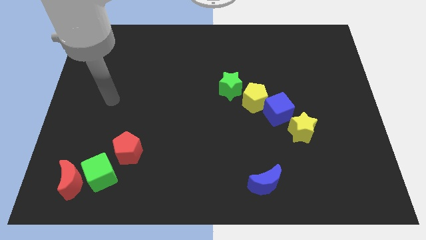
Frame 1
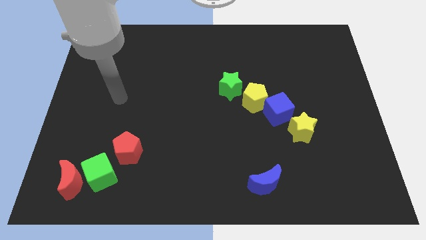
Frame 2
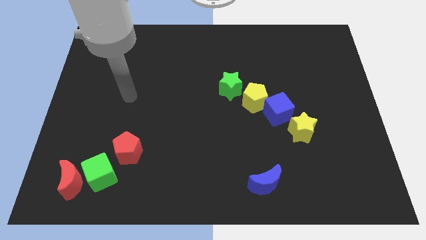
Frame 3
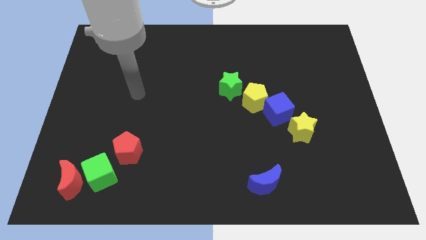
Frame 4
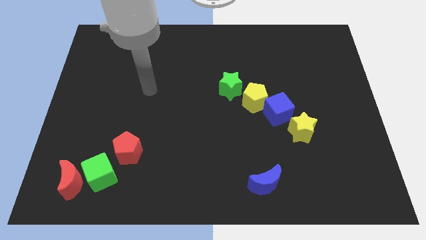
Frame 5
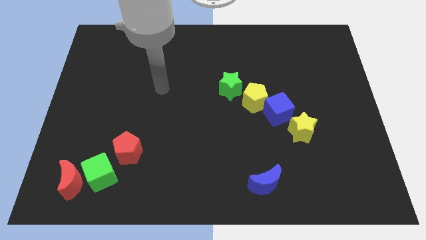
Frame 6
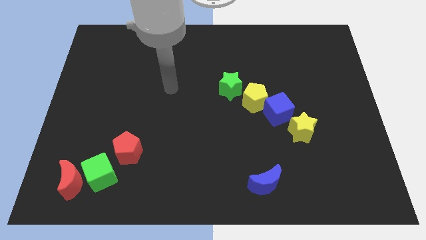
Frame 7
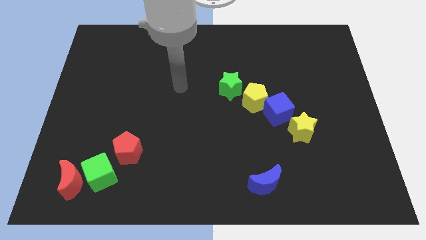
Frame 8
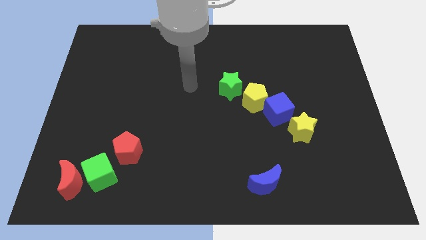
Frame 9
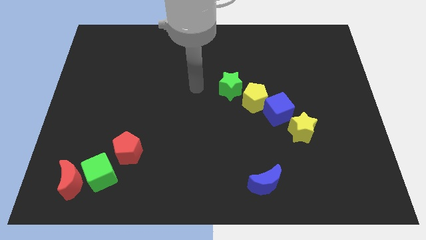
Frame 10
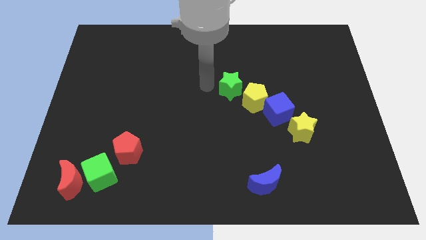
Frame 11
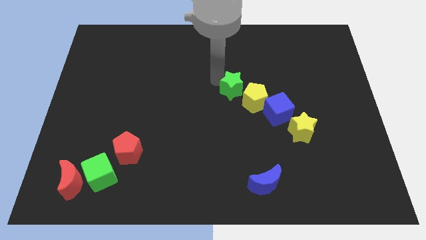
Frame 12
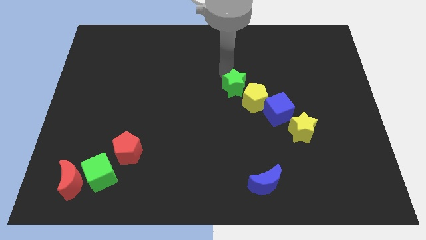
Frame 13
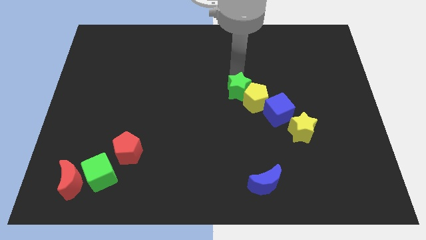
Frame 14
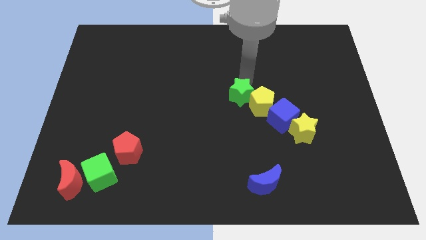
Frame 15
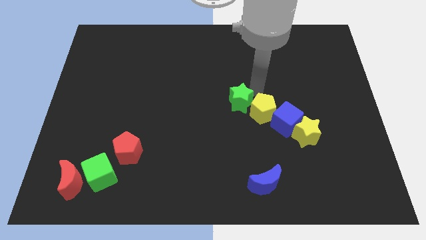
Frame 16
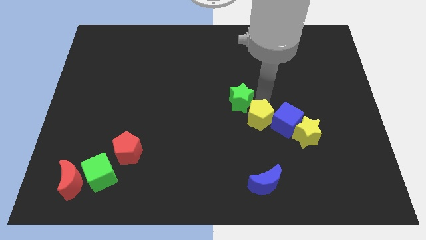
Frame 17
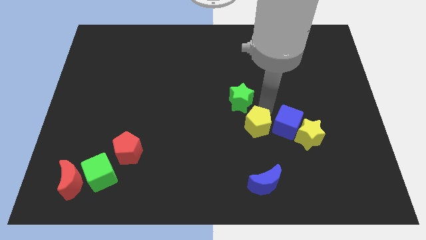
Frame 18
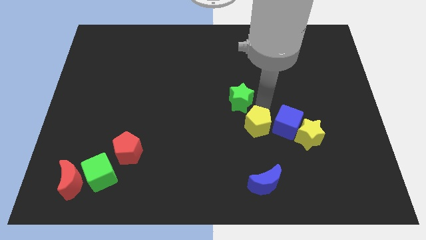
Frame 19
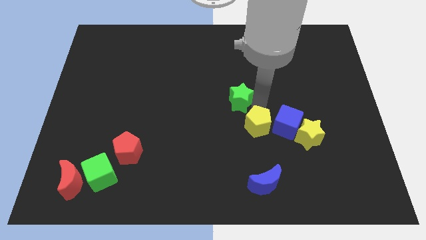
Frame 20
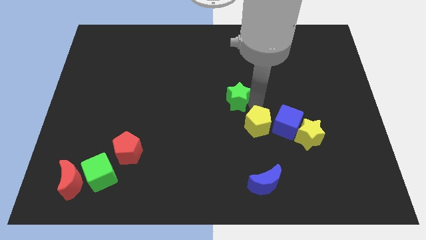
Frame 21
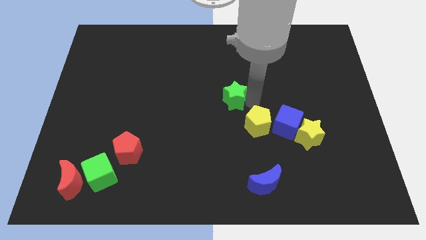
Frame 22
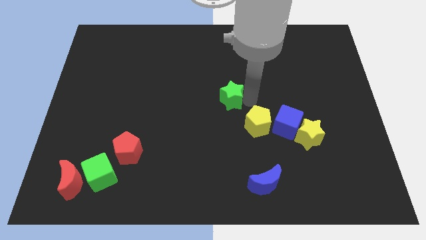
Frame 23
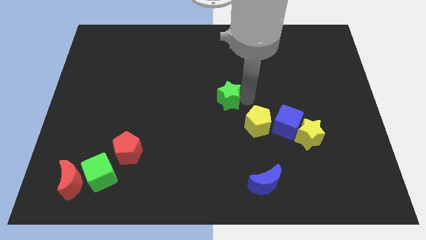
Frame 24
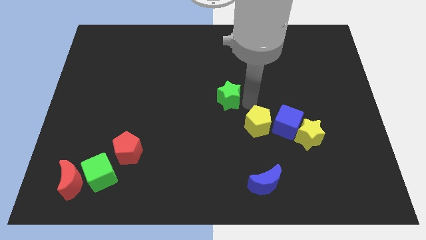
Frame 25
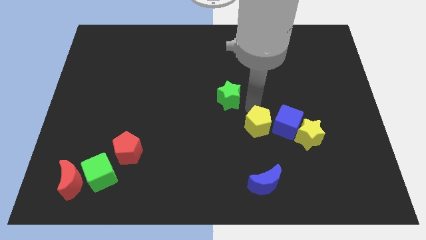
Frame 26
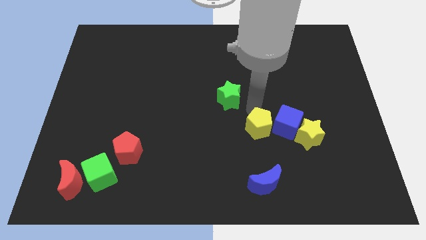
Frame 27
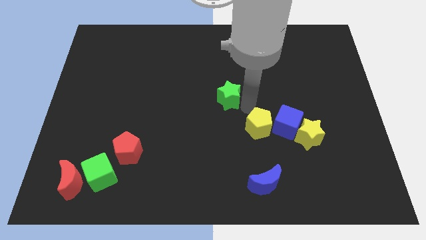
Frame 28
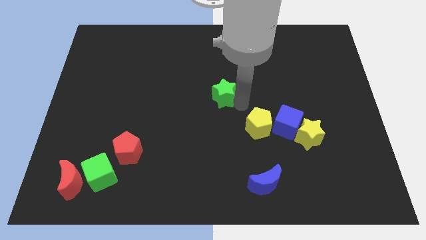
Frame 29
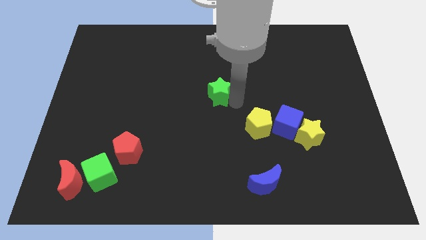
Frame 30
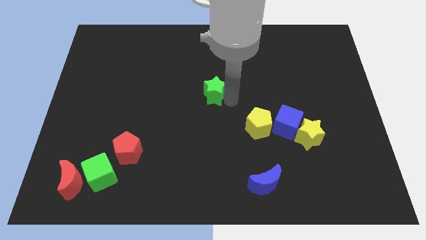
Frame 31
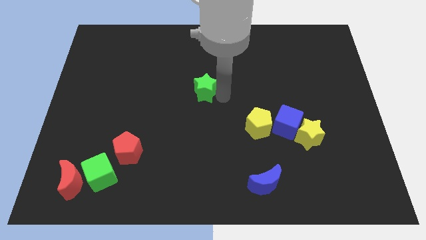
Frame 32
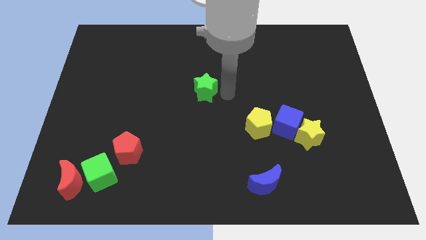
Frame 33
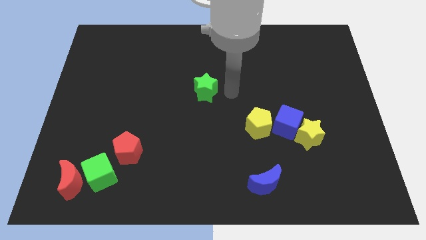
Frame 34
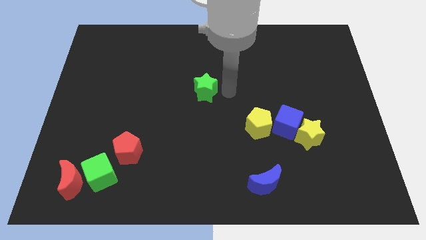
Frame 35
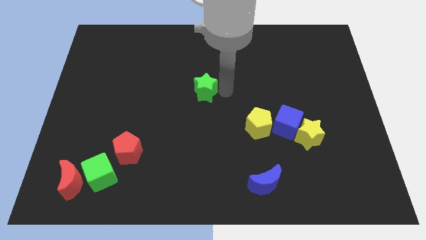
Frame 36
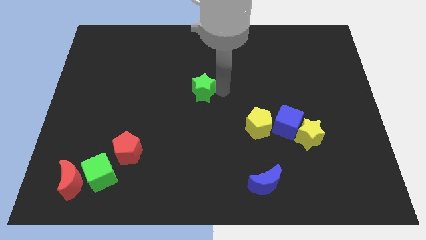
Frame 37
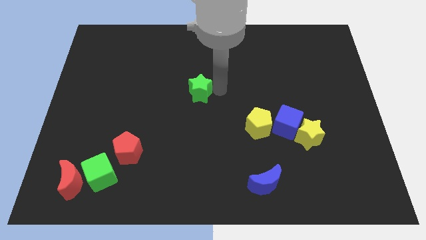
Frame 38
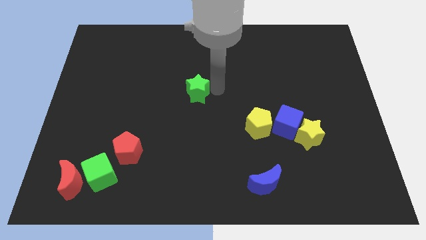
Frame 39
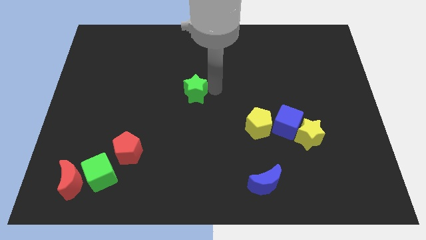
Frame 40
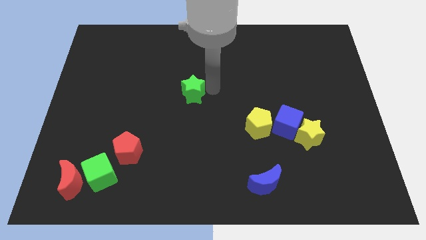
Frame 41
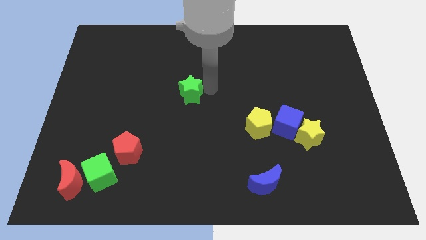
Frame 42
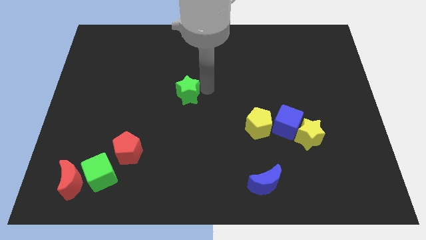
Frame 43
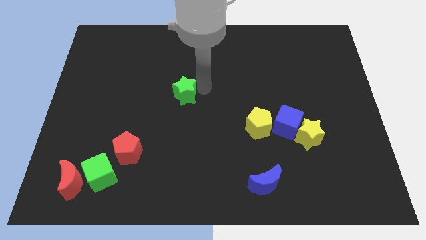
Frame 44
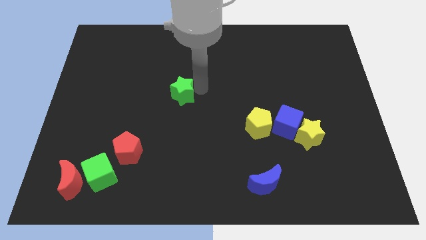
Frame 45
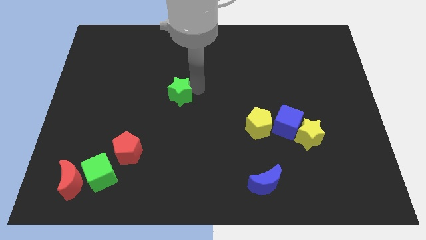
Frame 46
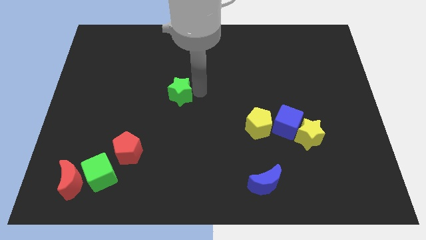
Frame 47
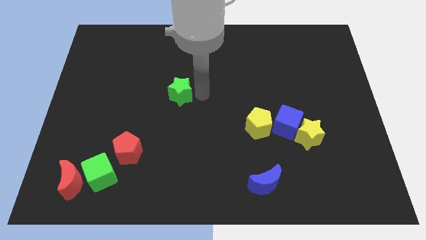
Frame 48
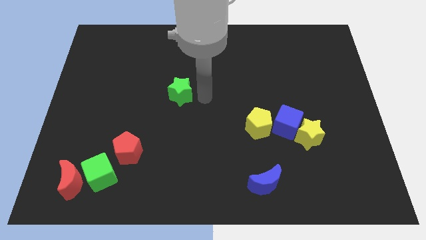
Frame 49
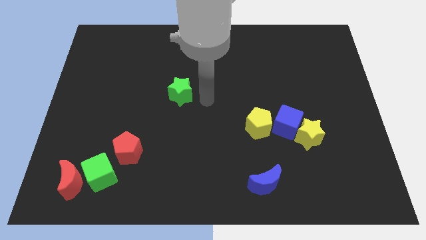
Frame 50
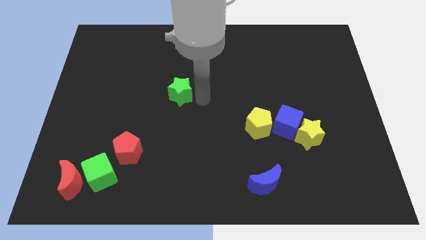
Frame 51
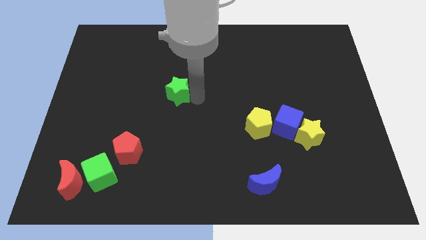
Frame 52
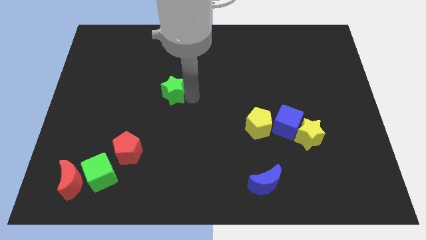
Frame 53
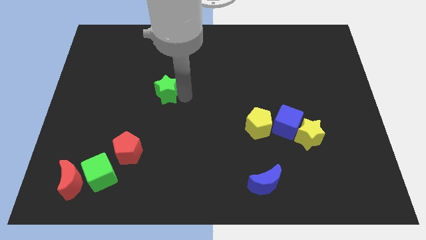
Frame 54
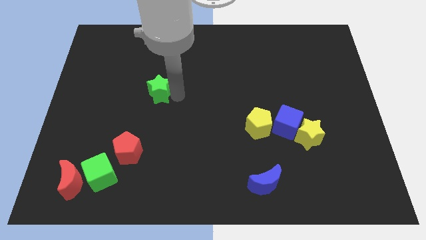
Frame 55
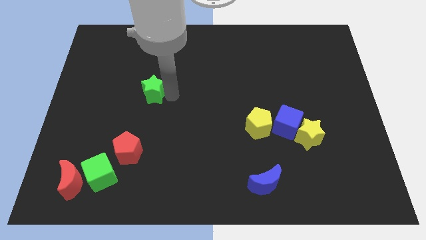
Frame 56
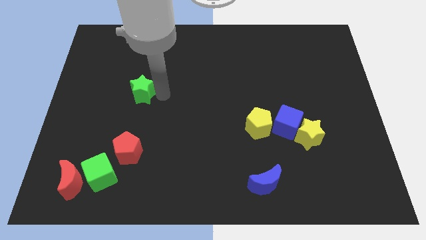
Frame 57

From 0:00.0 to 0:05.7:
slide the green star to the left

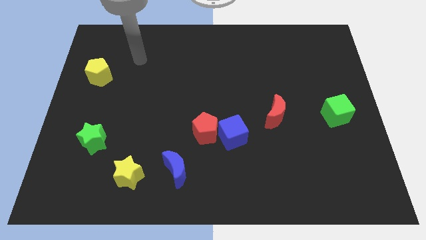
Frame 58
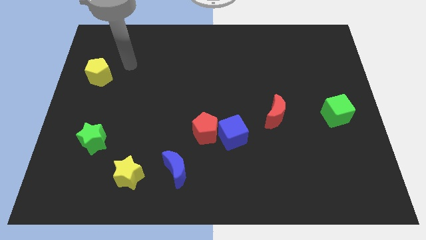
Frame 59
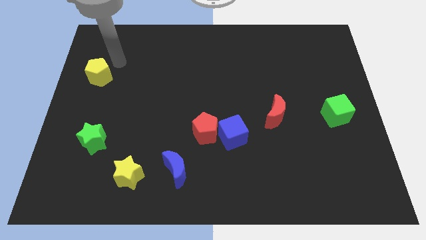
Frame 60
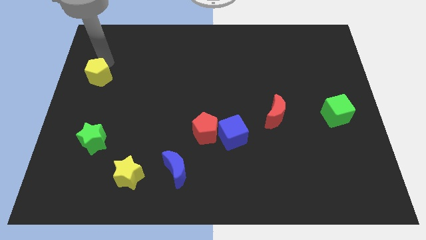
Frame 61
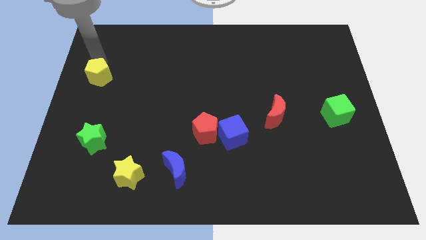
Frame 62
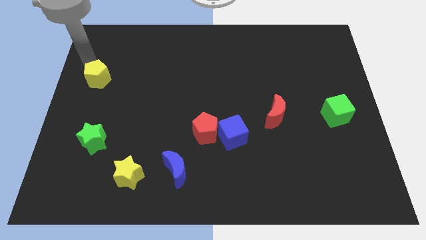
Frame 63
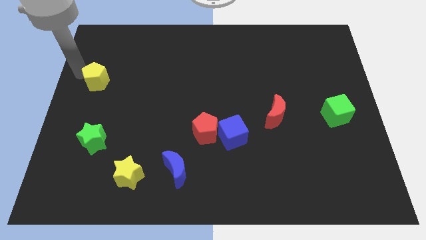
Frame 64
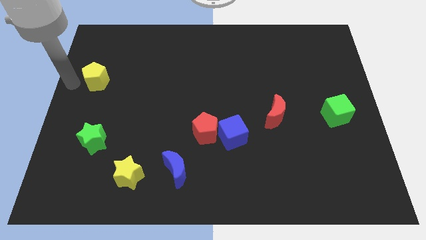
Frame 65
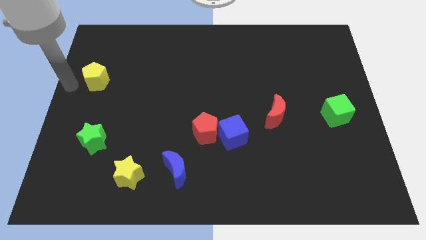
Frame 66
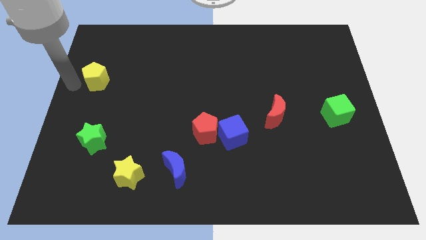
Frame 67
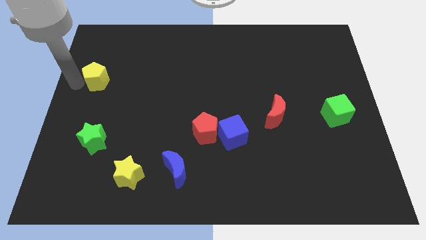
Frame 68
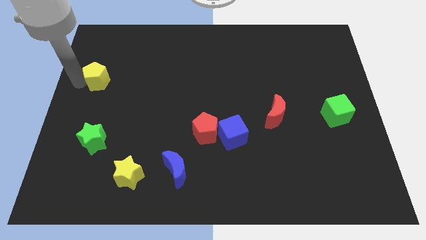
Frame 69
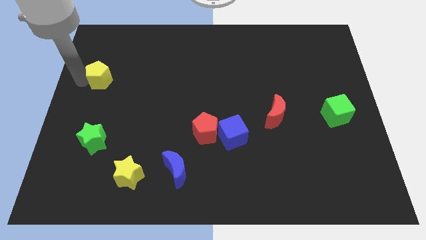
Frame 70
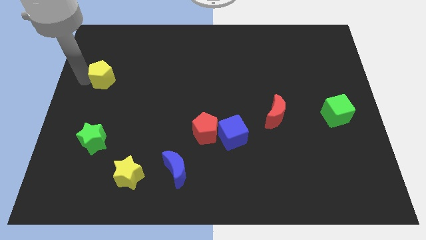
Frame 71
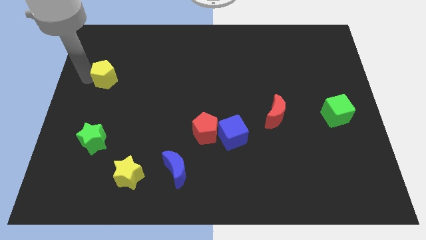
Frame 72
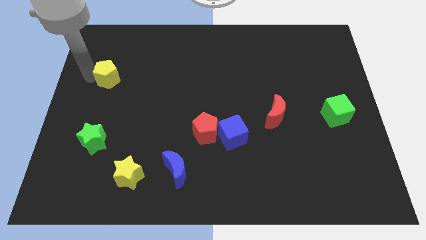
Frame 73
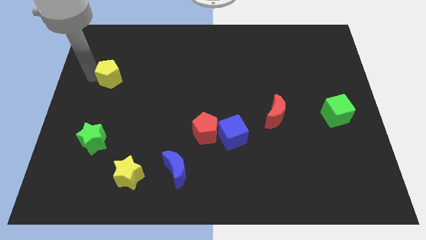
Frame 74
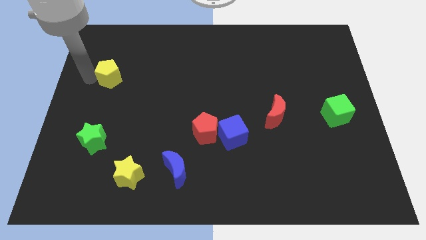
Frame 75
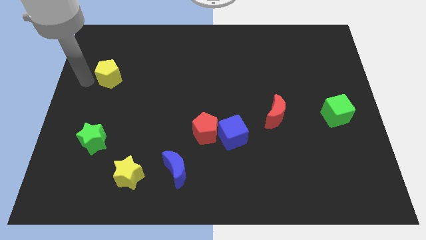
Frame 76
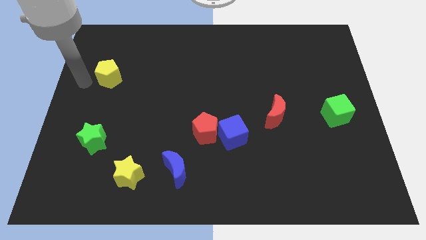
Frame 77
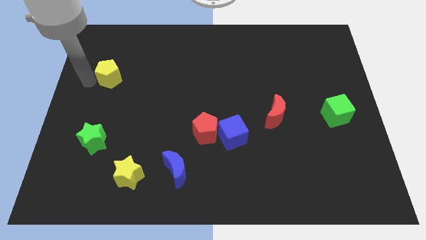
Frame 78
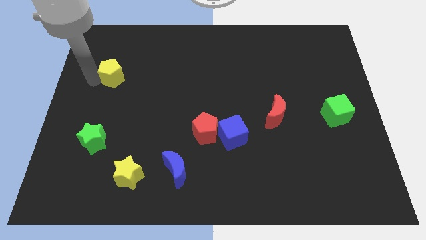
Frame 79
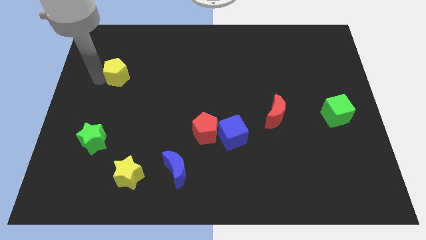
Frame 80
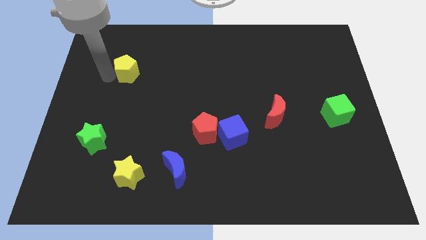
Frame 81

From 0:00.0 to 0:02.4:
push the yellow pentagon to the right a little bit

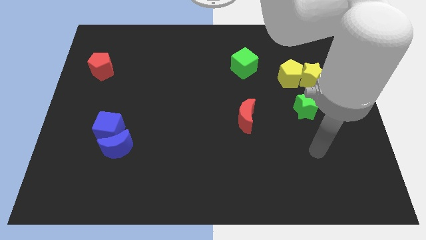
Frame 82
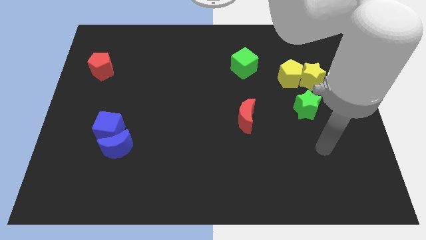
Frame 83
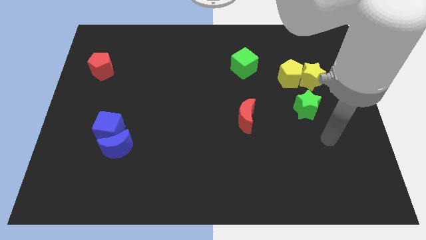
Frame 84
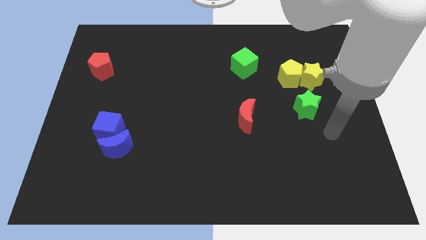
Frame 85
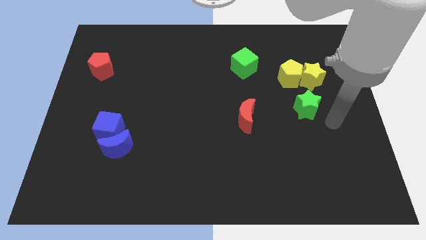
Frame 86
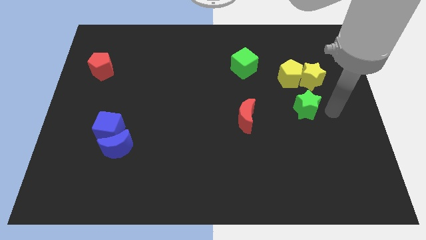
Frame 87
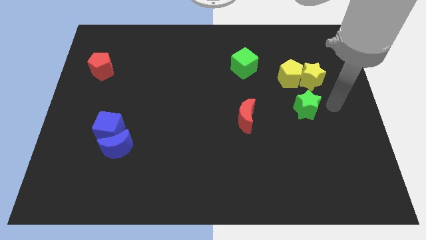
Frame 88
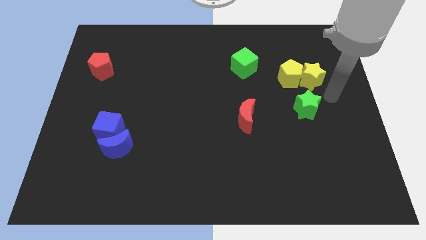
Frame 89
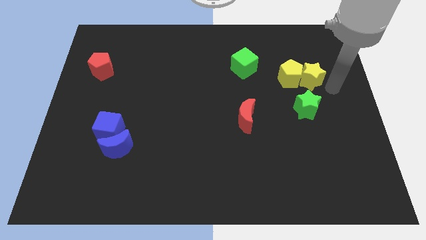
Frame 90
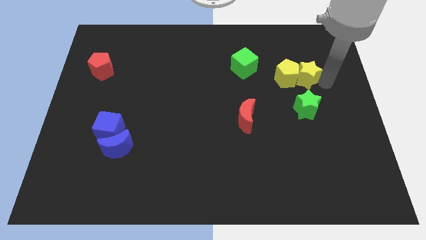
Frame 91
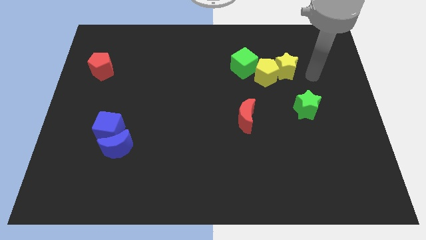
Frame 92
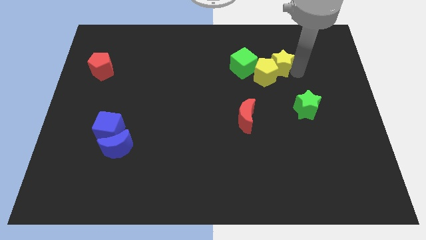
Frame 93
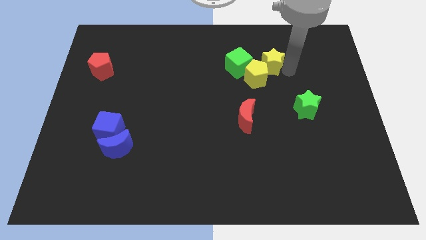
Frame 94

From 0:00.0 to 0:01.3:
move the yellow pentagon left a little
